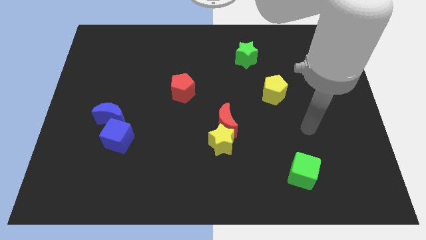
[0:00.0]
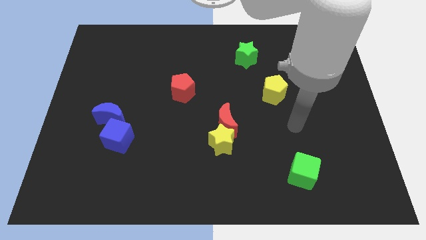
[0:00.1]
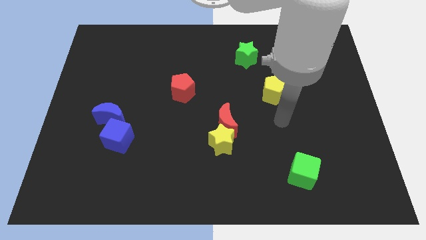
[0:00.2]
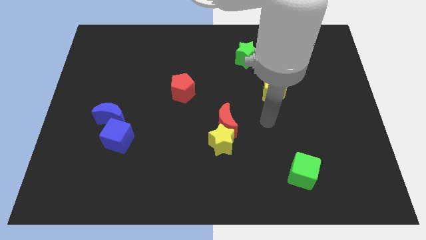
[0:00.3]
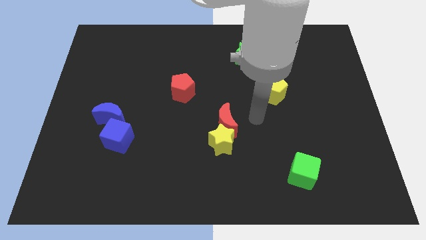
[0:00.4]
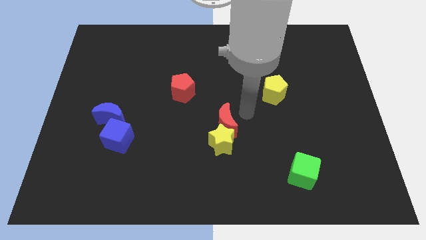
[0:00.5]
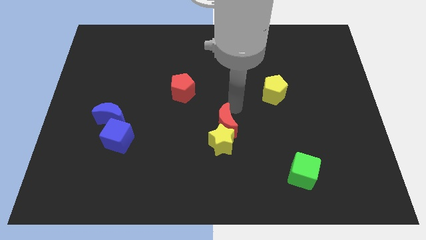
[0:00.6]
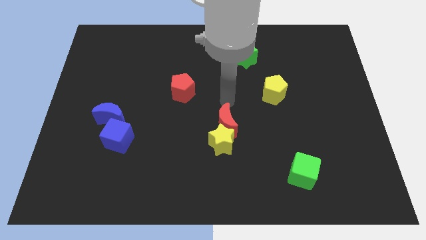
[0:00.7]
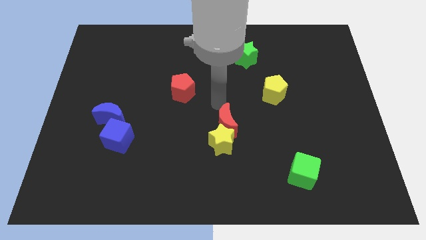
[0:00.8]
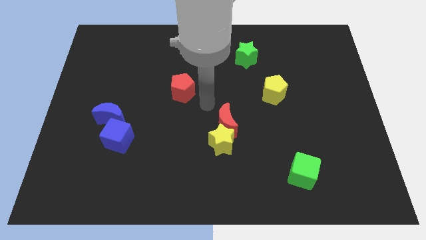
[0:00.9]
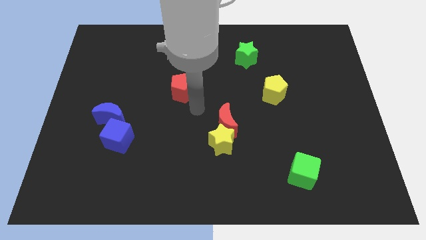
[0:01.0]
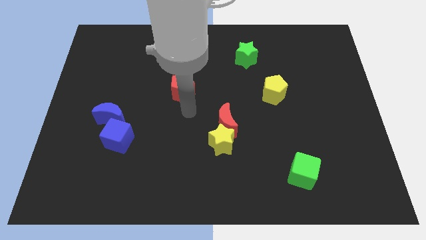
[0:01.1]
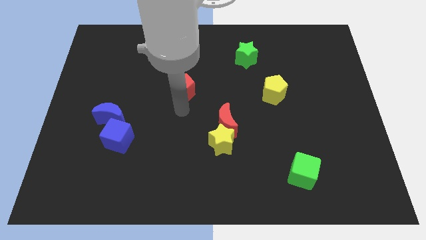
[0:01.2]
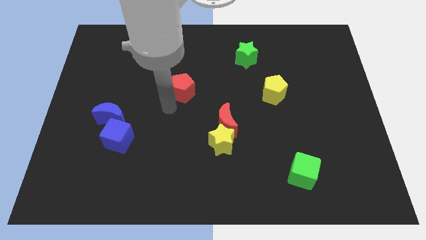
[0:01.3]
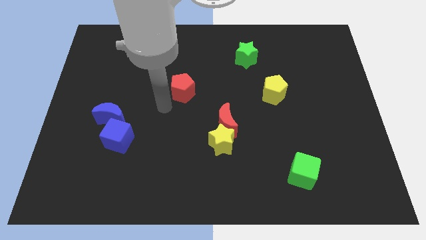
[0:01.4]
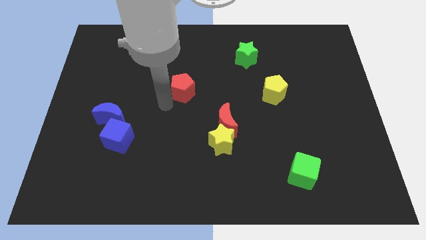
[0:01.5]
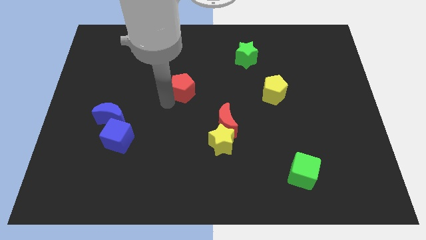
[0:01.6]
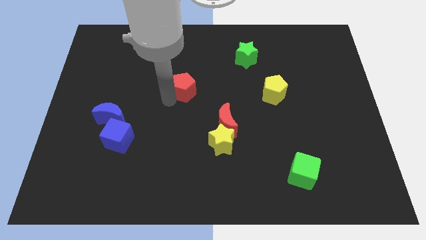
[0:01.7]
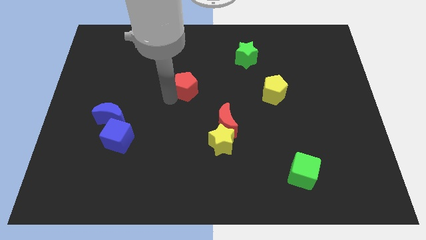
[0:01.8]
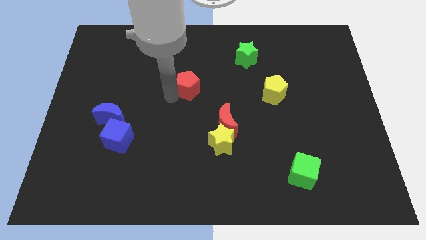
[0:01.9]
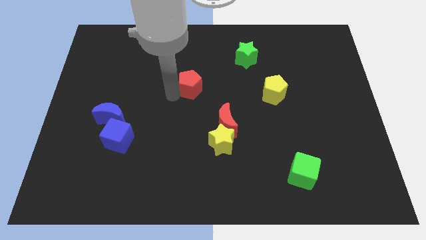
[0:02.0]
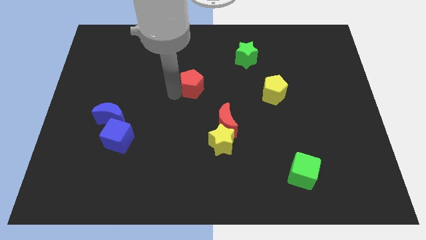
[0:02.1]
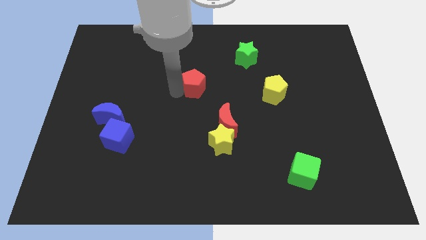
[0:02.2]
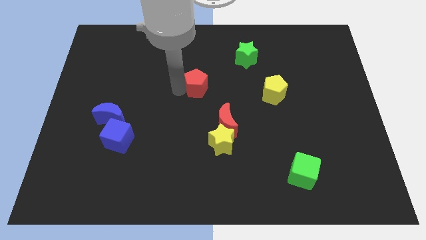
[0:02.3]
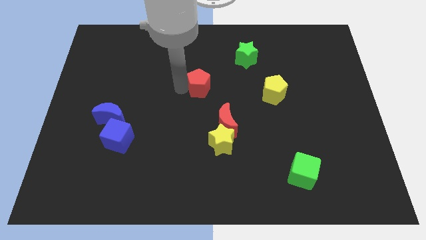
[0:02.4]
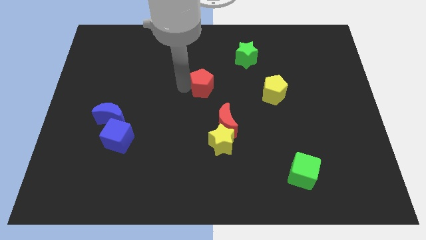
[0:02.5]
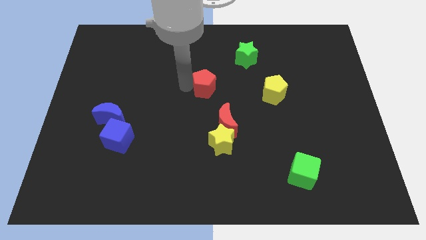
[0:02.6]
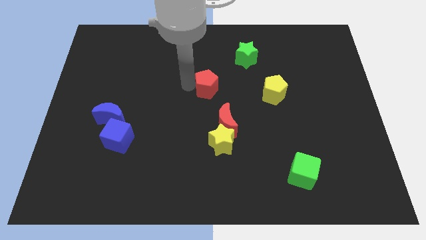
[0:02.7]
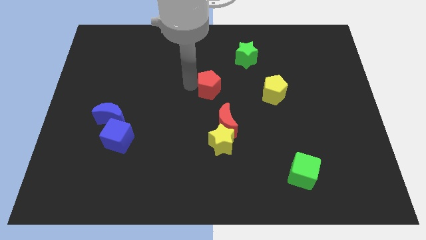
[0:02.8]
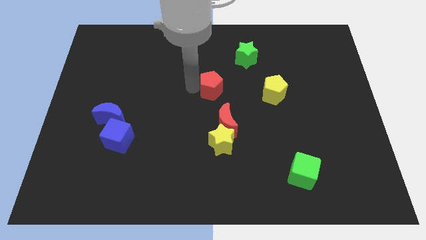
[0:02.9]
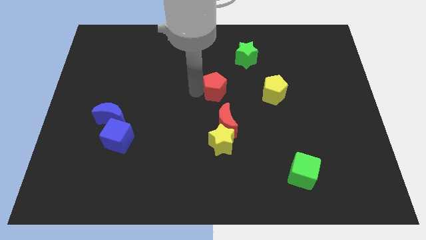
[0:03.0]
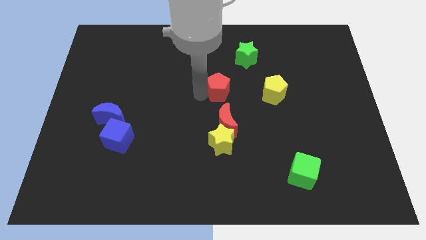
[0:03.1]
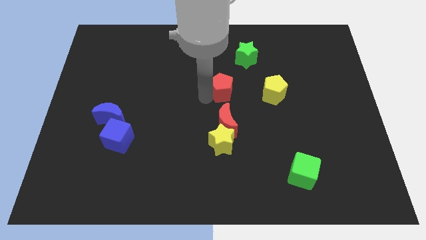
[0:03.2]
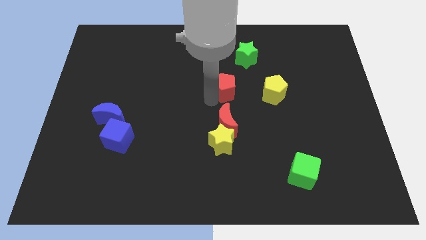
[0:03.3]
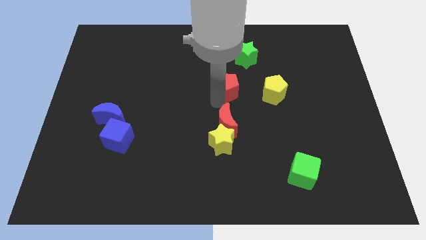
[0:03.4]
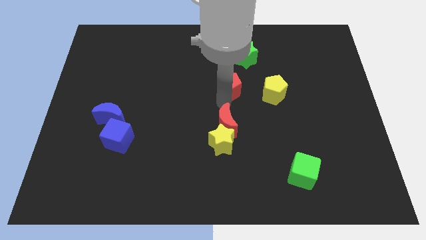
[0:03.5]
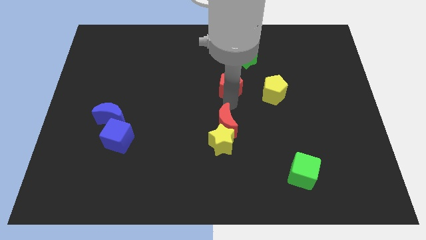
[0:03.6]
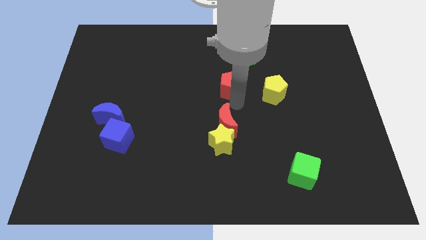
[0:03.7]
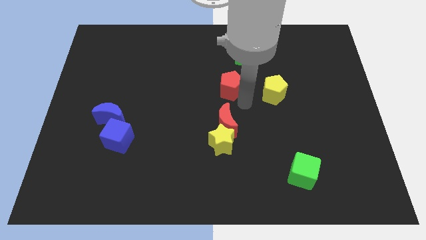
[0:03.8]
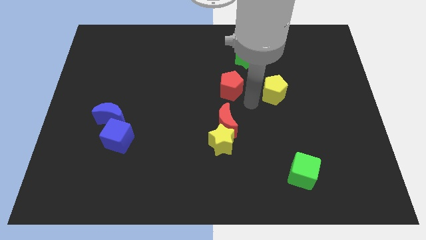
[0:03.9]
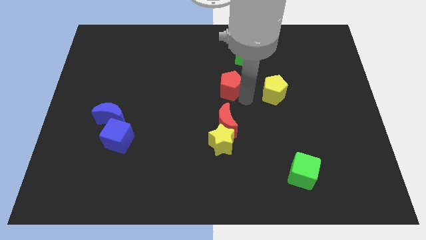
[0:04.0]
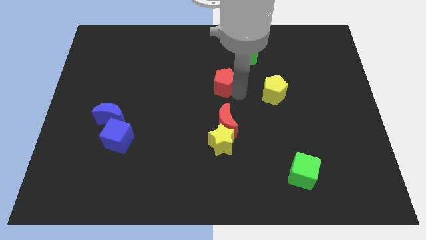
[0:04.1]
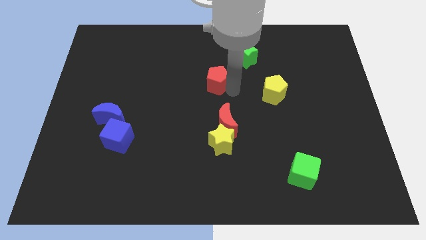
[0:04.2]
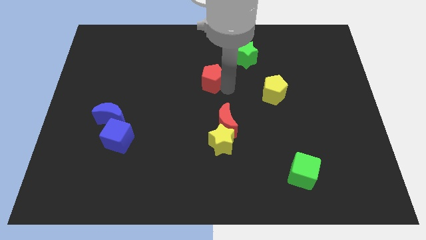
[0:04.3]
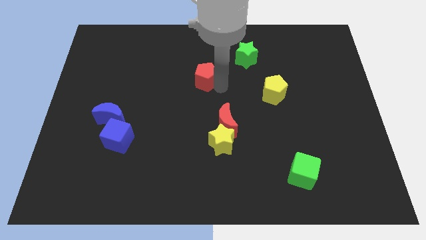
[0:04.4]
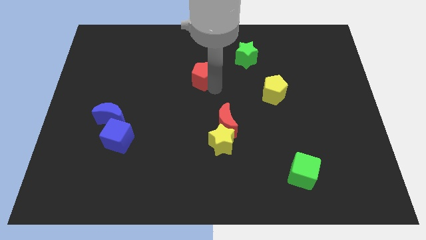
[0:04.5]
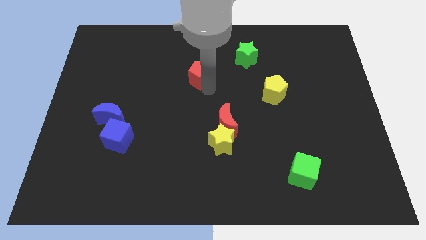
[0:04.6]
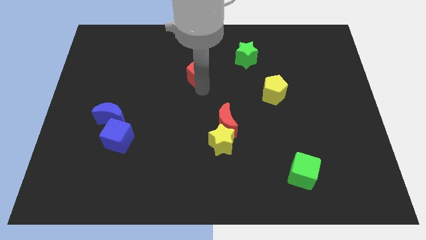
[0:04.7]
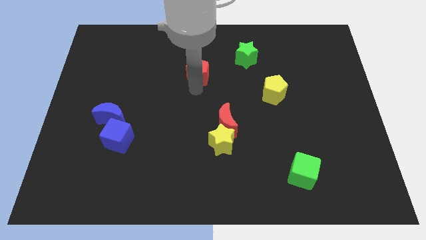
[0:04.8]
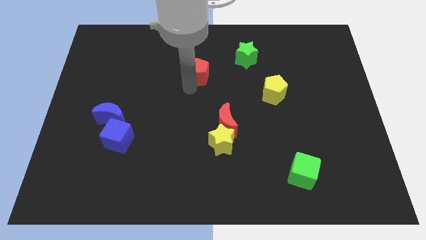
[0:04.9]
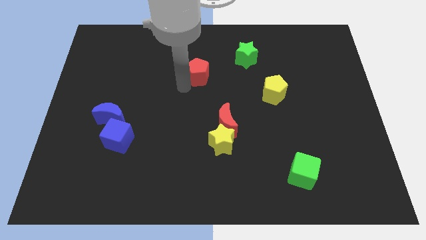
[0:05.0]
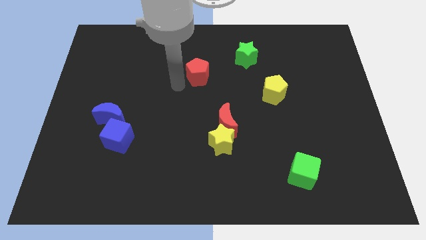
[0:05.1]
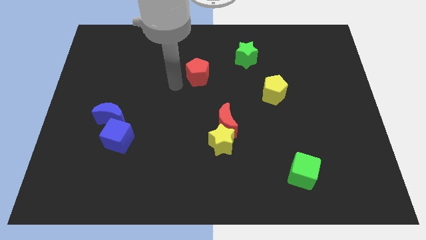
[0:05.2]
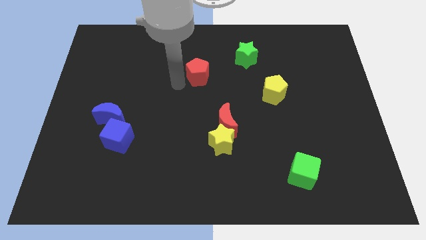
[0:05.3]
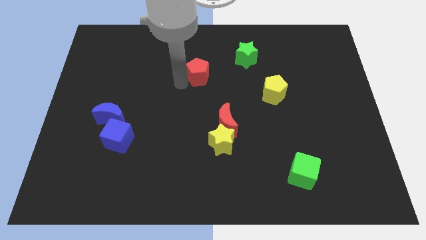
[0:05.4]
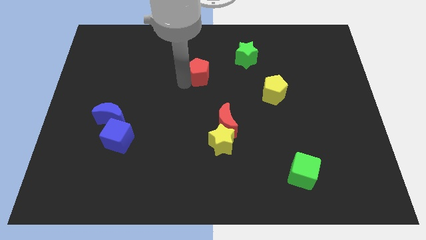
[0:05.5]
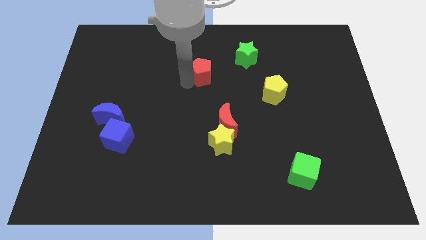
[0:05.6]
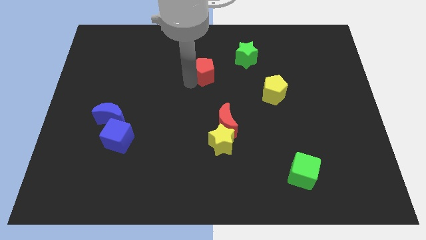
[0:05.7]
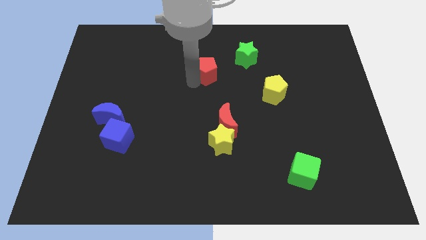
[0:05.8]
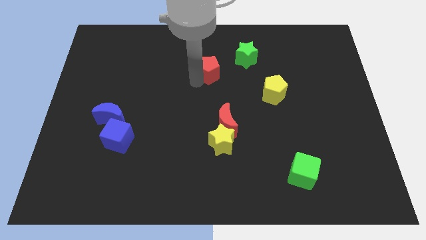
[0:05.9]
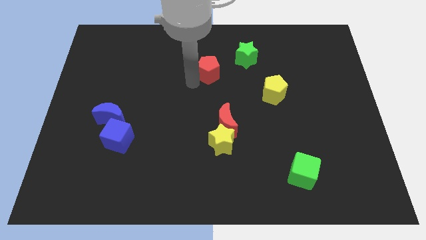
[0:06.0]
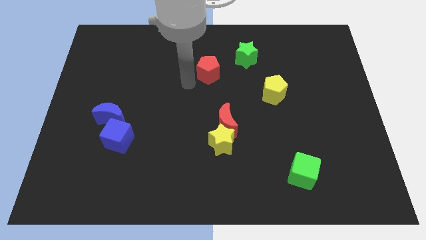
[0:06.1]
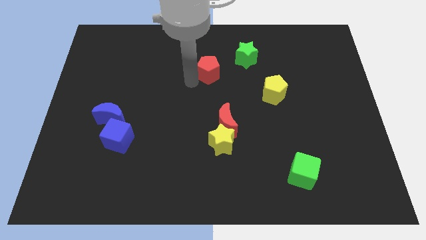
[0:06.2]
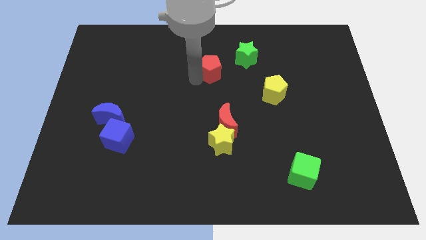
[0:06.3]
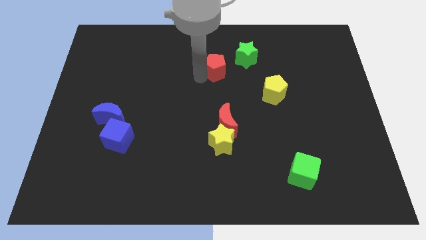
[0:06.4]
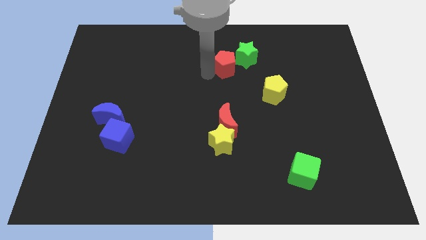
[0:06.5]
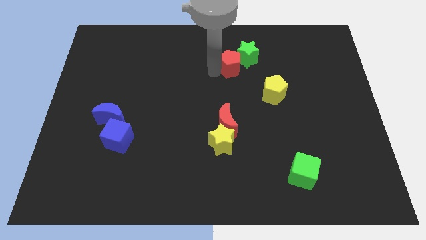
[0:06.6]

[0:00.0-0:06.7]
move the red pentagon close to the green star
